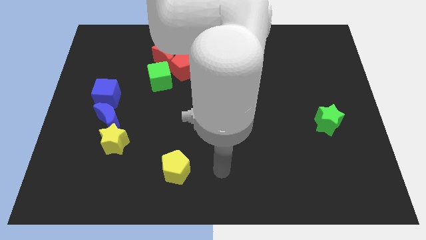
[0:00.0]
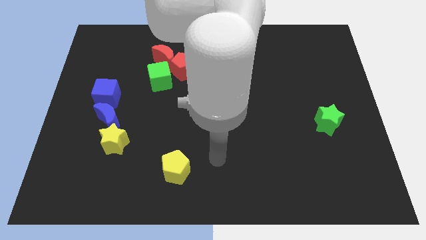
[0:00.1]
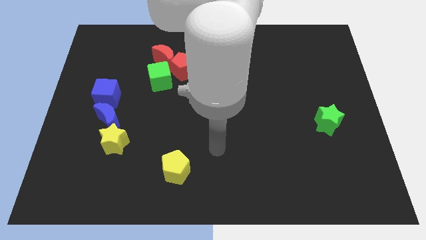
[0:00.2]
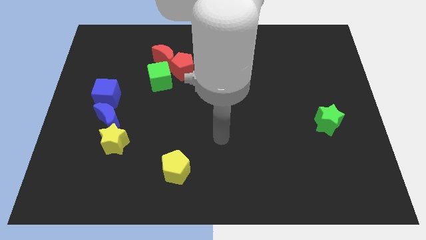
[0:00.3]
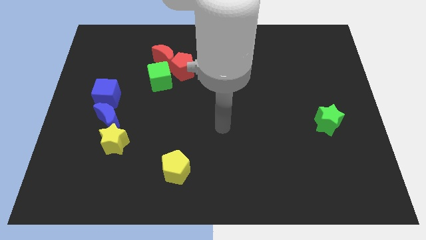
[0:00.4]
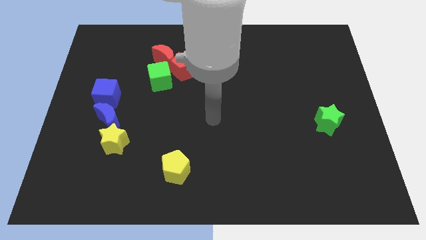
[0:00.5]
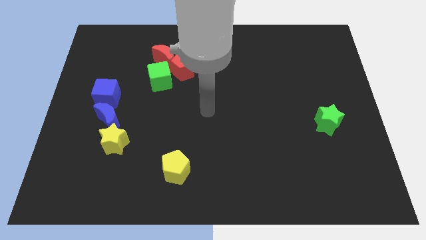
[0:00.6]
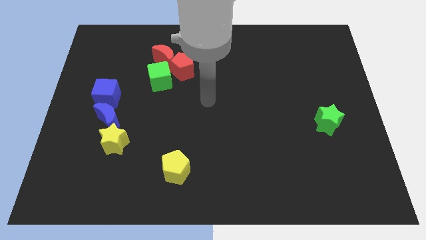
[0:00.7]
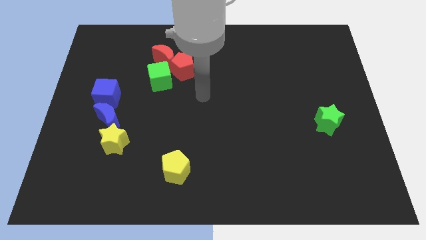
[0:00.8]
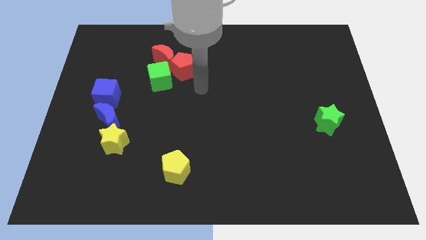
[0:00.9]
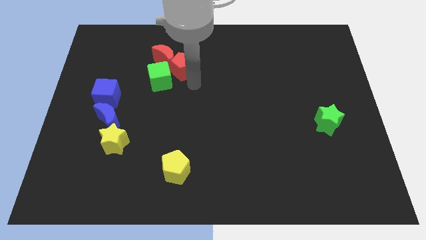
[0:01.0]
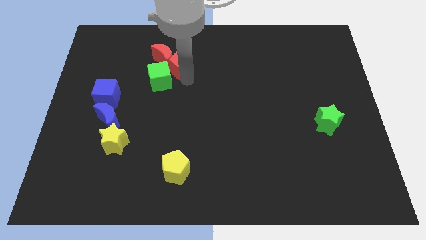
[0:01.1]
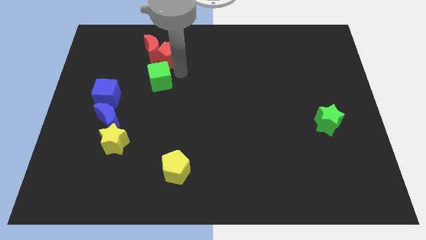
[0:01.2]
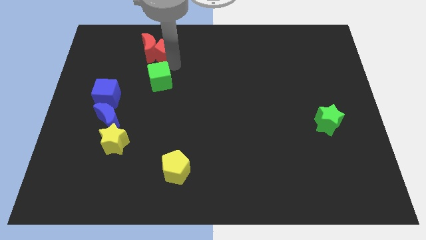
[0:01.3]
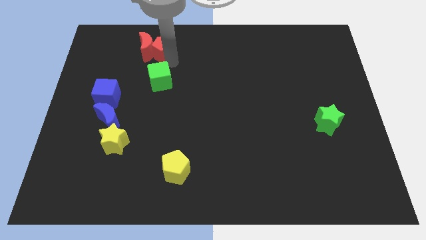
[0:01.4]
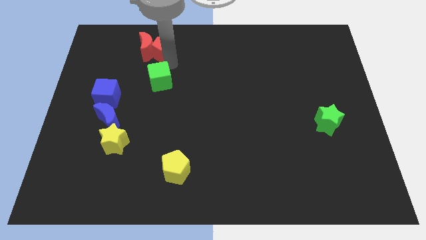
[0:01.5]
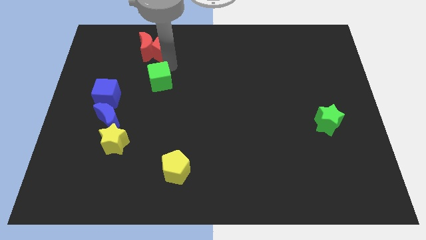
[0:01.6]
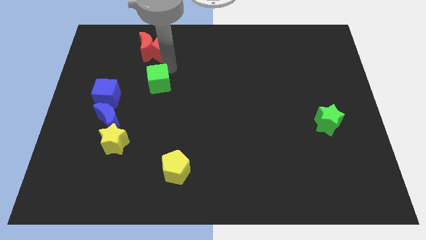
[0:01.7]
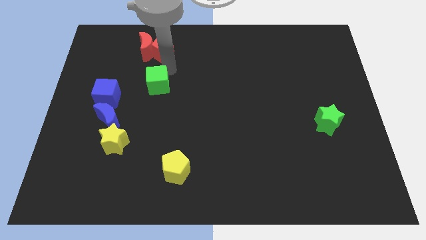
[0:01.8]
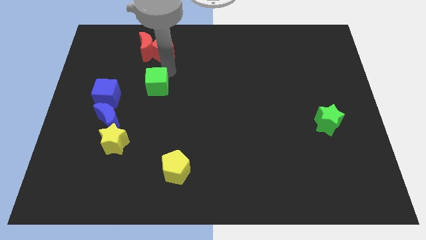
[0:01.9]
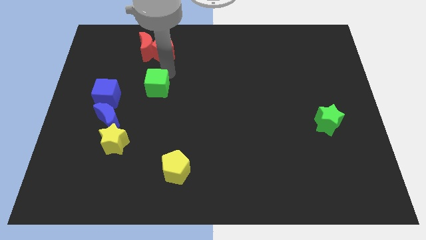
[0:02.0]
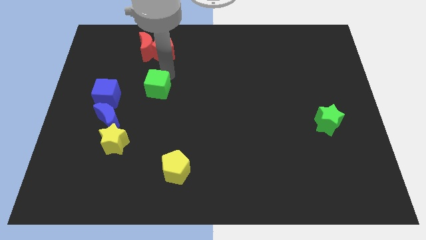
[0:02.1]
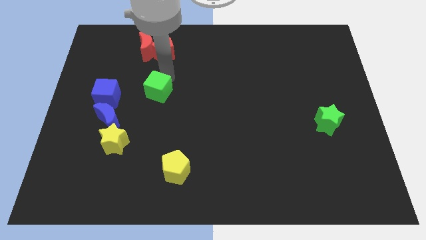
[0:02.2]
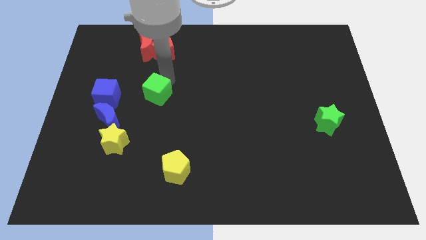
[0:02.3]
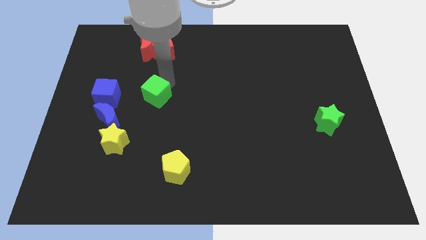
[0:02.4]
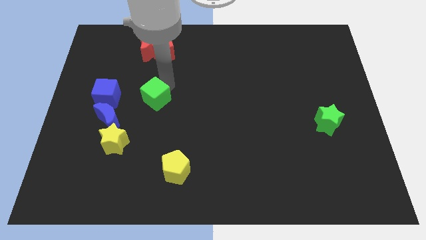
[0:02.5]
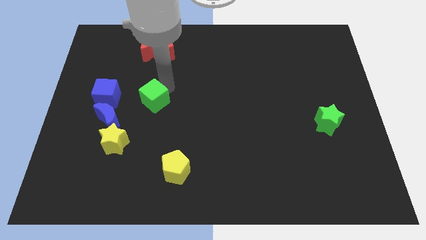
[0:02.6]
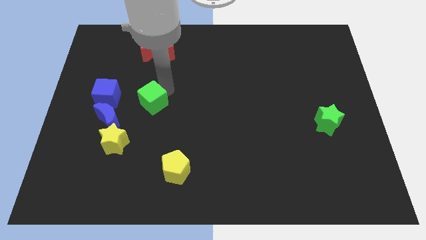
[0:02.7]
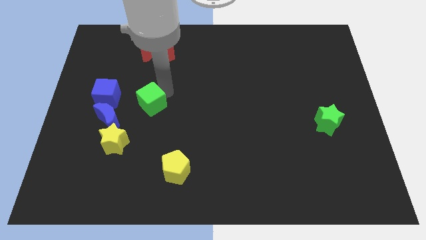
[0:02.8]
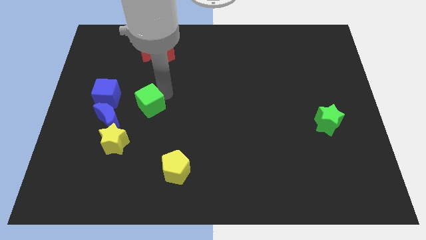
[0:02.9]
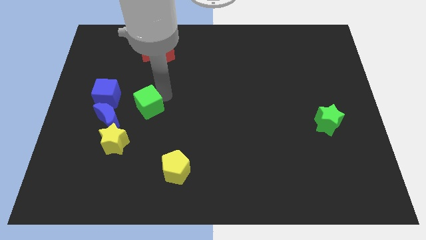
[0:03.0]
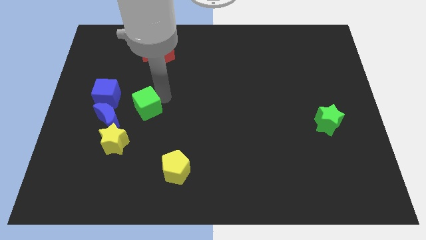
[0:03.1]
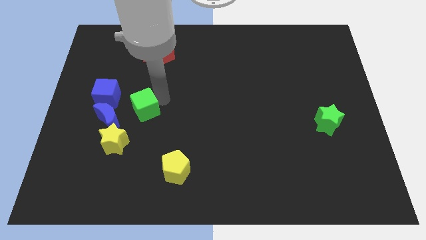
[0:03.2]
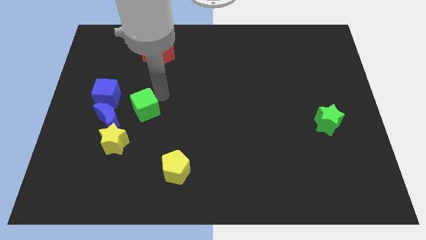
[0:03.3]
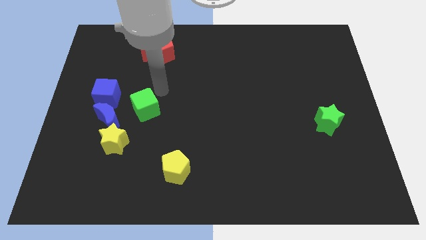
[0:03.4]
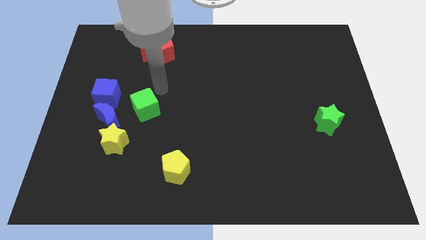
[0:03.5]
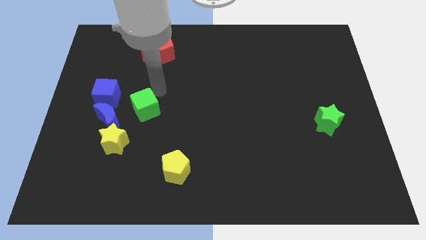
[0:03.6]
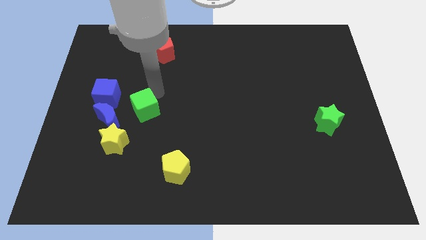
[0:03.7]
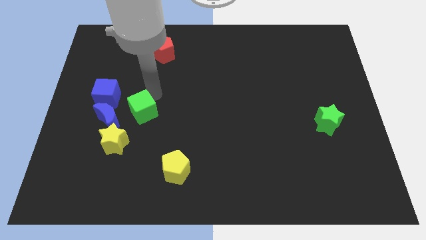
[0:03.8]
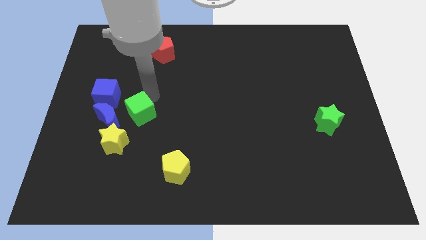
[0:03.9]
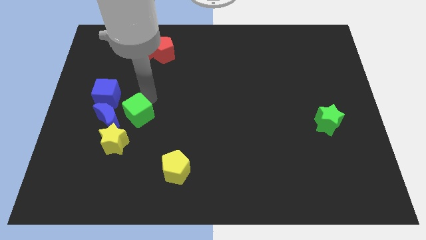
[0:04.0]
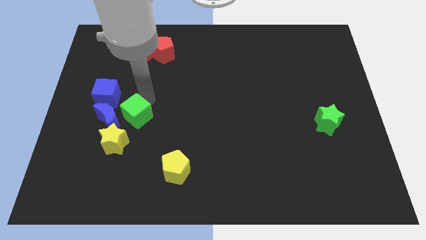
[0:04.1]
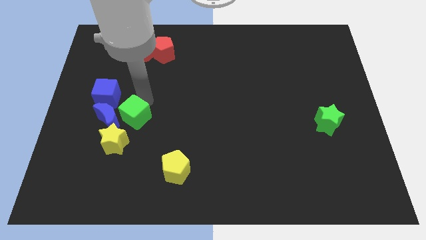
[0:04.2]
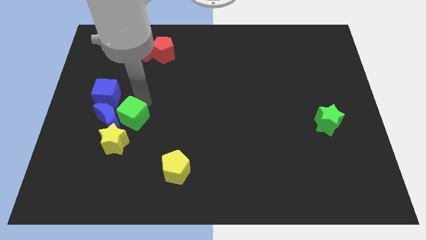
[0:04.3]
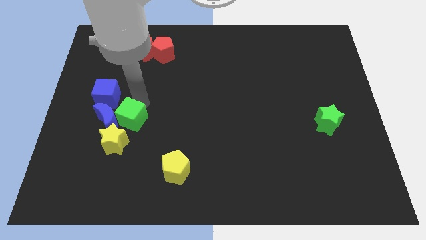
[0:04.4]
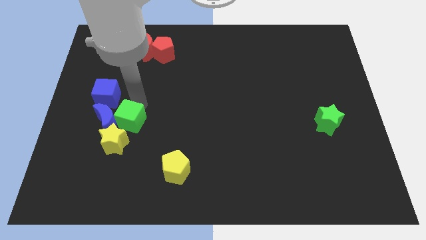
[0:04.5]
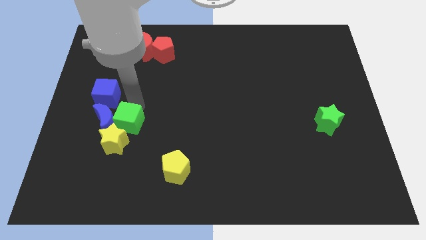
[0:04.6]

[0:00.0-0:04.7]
slide the green cube next to the yellow star

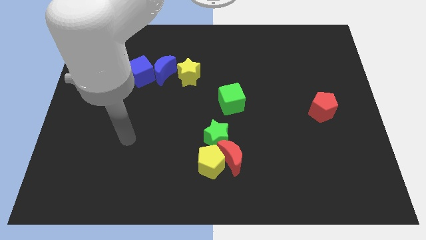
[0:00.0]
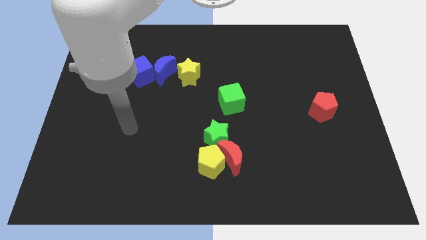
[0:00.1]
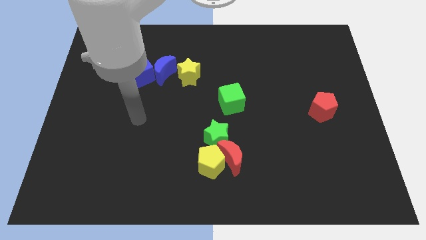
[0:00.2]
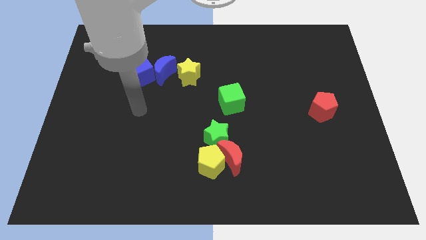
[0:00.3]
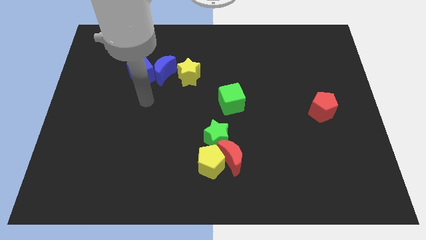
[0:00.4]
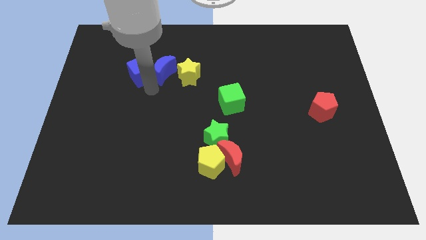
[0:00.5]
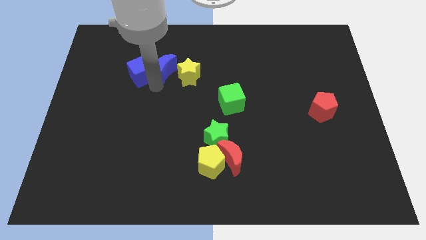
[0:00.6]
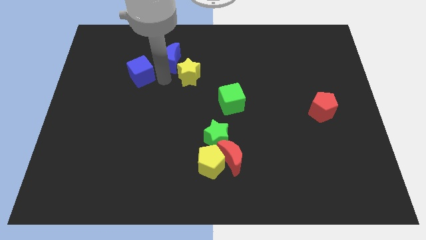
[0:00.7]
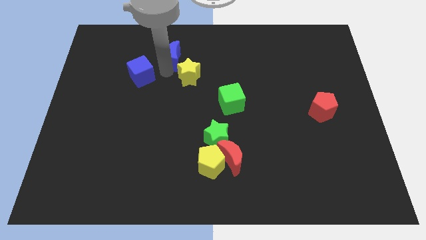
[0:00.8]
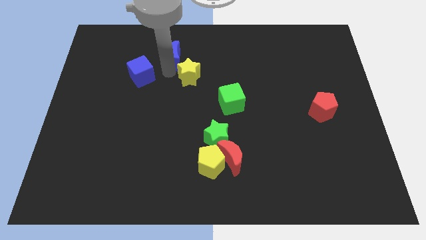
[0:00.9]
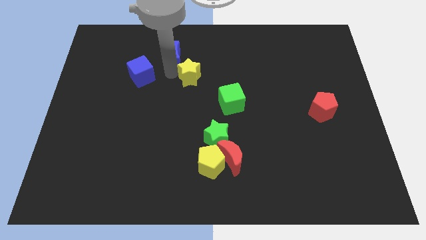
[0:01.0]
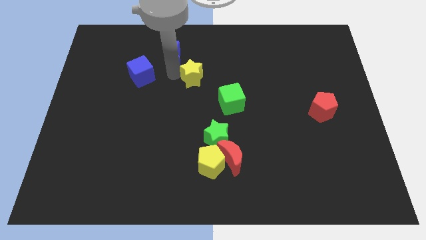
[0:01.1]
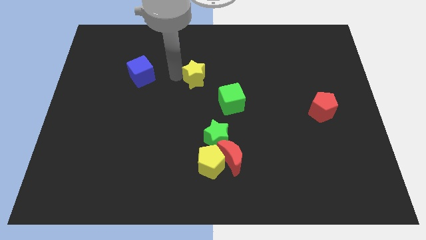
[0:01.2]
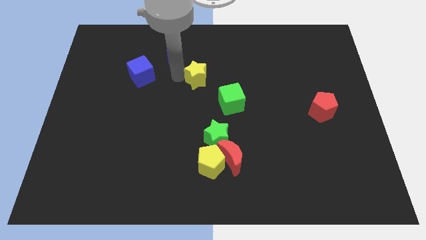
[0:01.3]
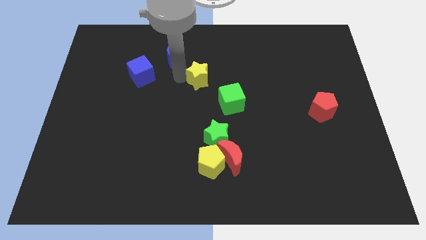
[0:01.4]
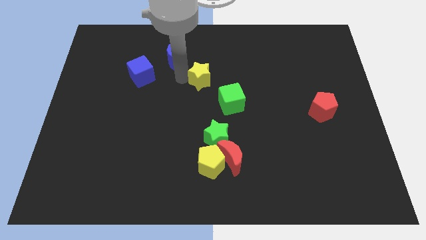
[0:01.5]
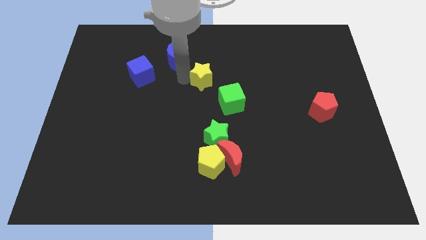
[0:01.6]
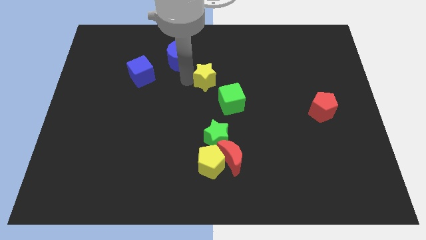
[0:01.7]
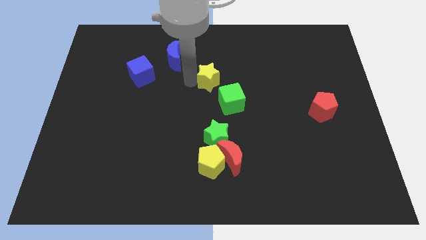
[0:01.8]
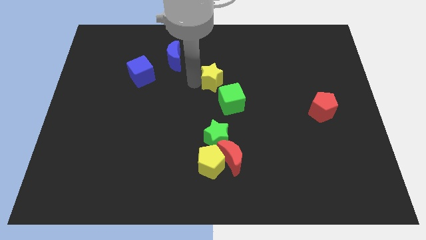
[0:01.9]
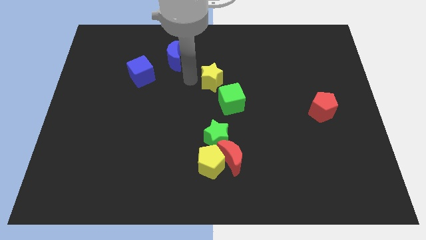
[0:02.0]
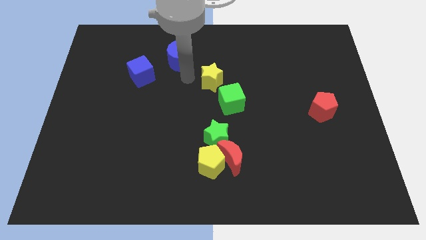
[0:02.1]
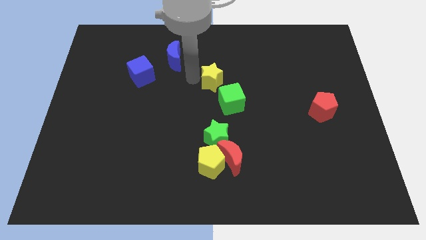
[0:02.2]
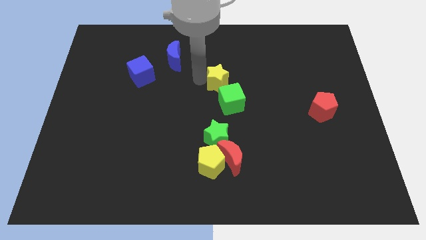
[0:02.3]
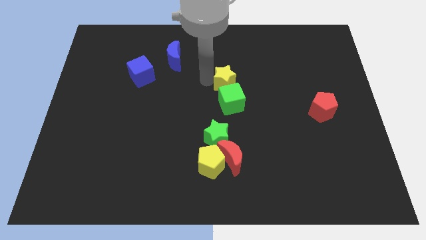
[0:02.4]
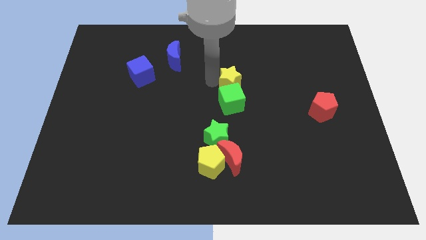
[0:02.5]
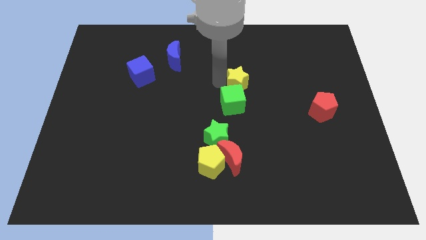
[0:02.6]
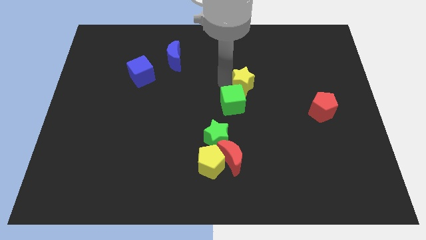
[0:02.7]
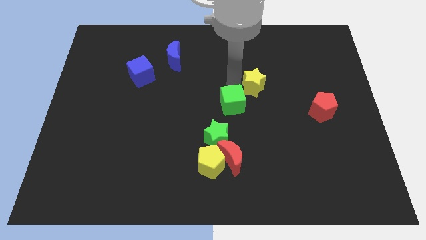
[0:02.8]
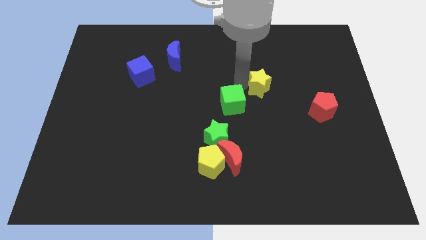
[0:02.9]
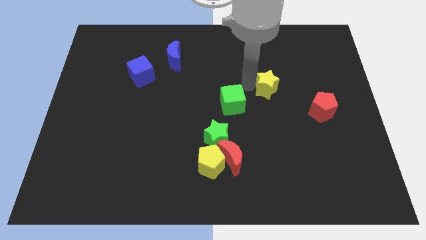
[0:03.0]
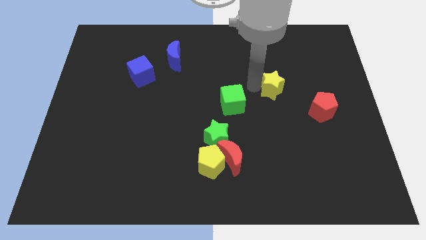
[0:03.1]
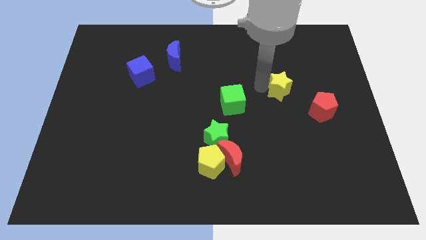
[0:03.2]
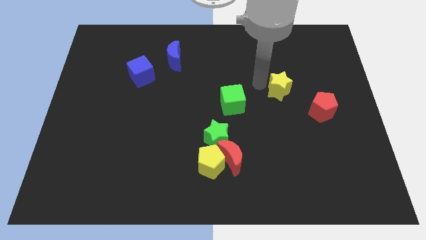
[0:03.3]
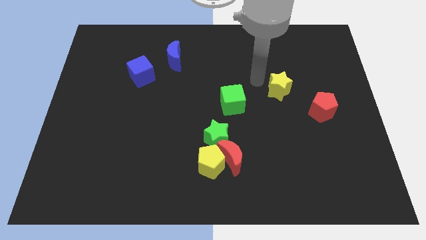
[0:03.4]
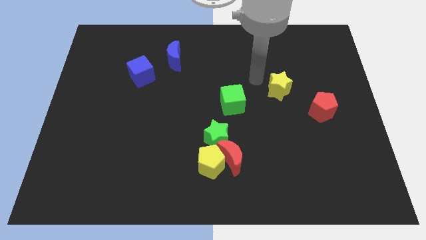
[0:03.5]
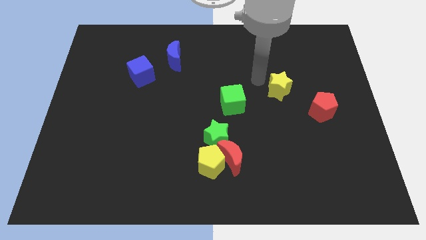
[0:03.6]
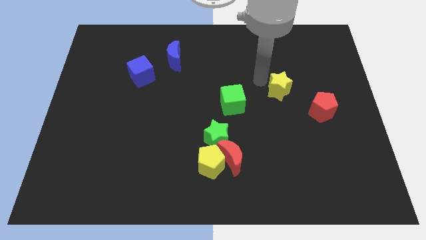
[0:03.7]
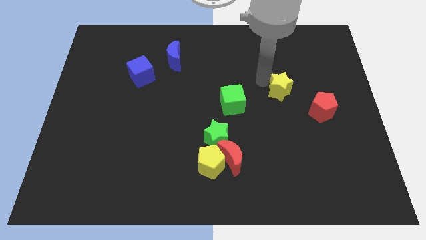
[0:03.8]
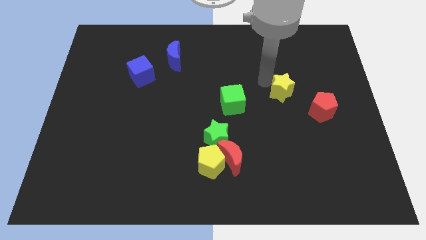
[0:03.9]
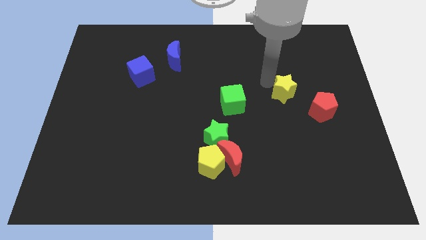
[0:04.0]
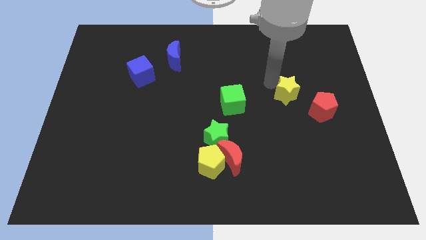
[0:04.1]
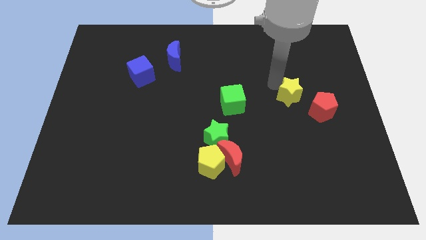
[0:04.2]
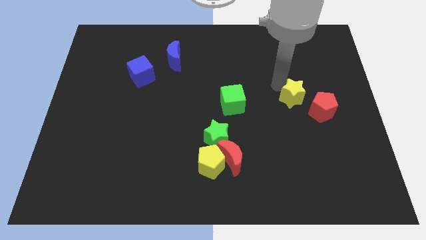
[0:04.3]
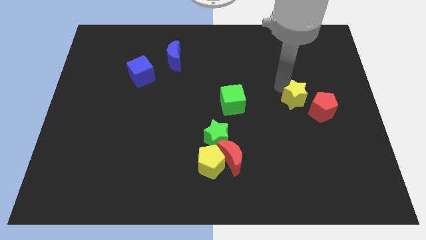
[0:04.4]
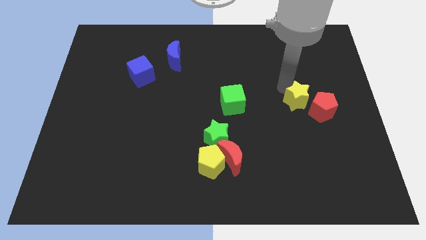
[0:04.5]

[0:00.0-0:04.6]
slide the yellow star close to the red pentagon
